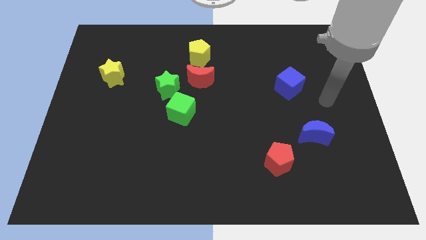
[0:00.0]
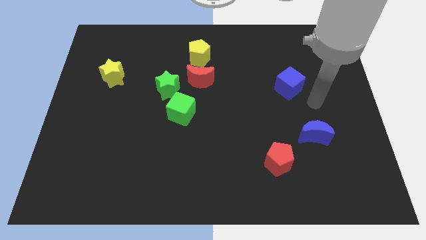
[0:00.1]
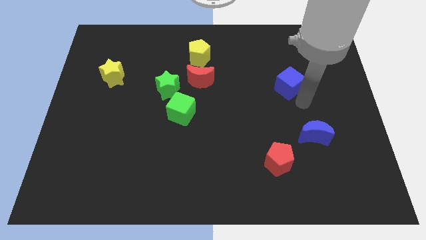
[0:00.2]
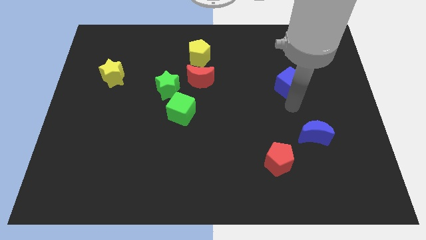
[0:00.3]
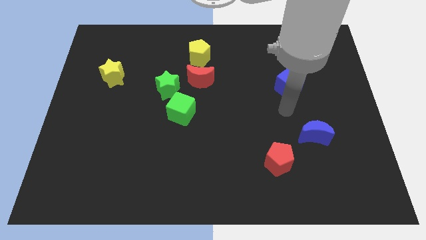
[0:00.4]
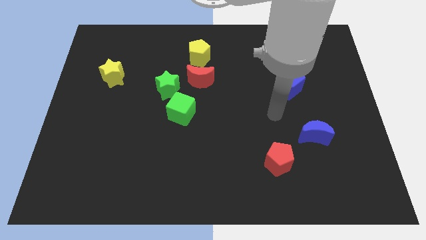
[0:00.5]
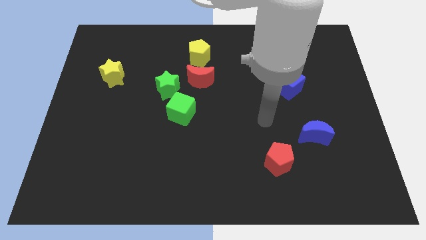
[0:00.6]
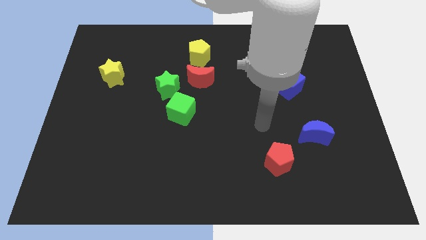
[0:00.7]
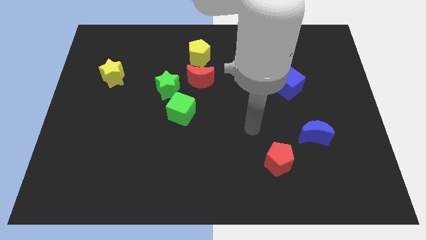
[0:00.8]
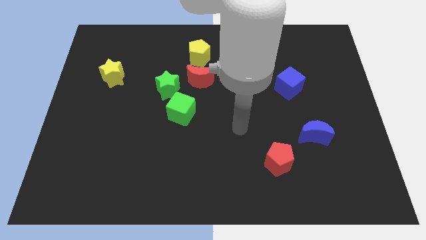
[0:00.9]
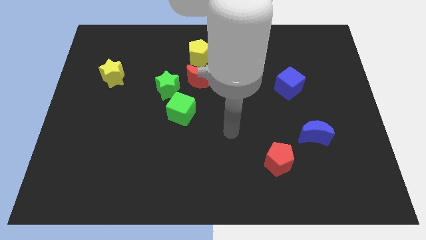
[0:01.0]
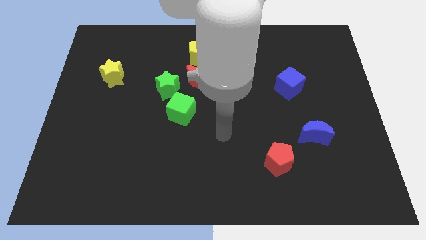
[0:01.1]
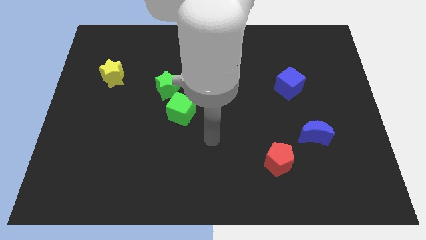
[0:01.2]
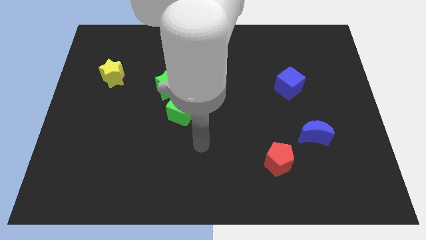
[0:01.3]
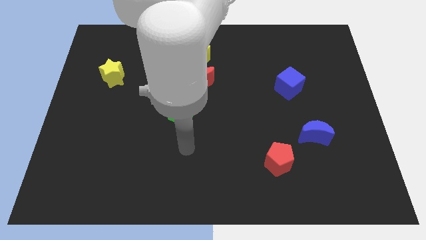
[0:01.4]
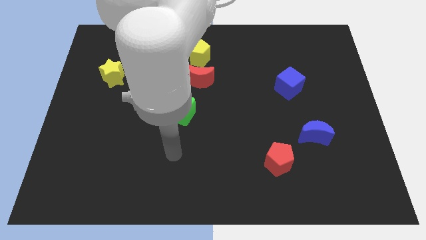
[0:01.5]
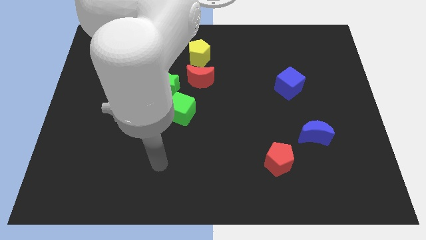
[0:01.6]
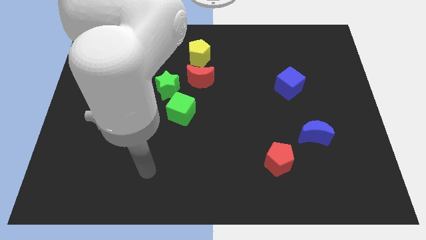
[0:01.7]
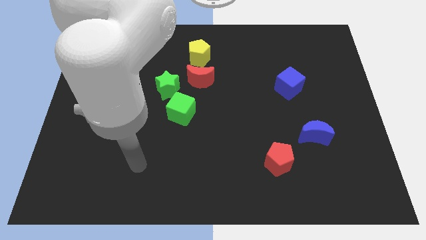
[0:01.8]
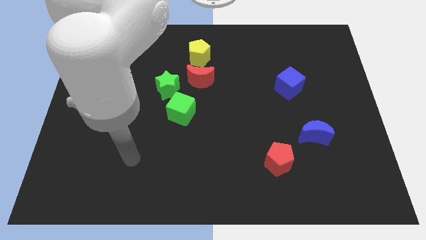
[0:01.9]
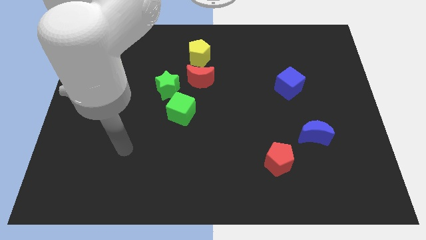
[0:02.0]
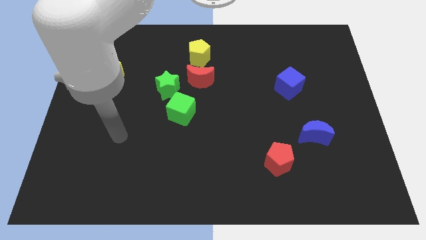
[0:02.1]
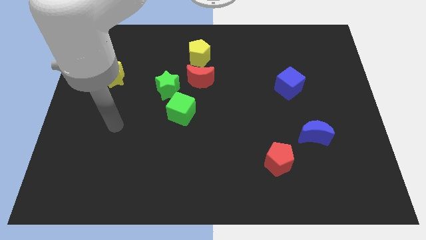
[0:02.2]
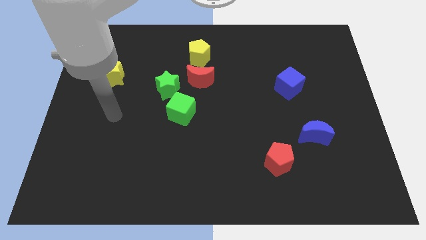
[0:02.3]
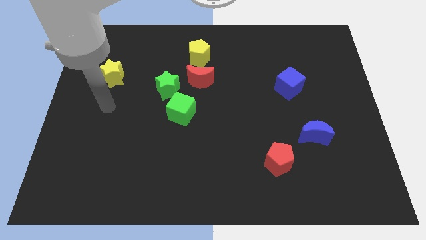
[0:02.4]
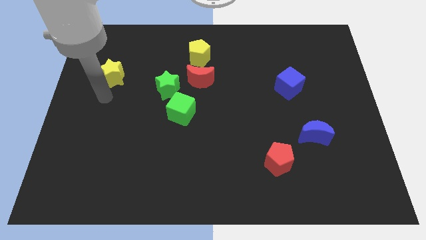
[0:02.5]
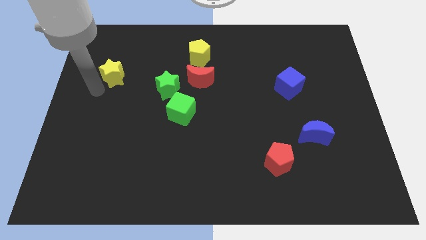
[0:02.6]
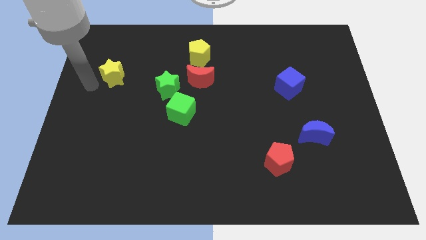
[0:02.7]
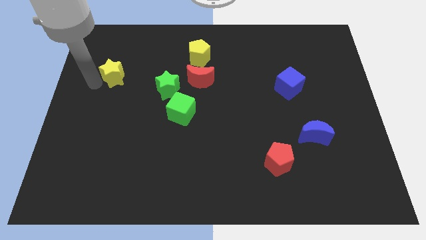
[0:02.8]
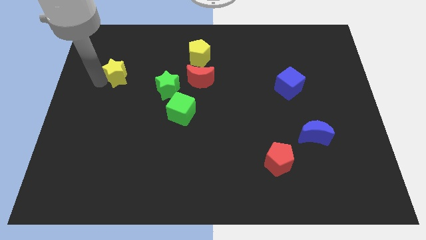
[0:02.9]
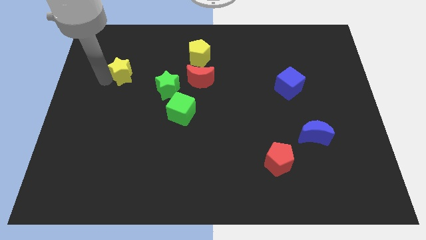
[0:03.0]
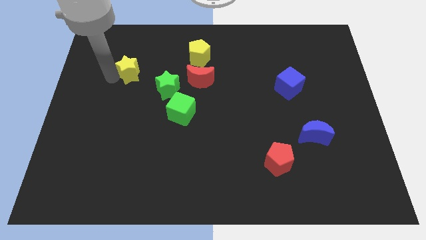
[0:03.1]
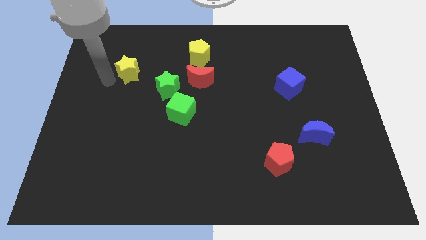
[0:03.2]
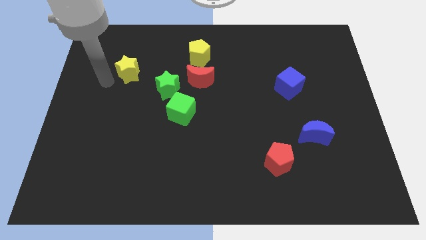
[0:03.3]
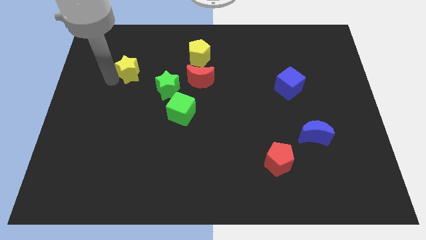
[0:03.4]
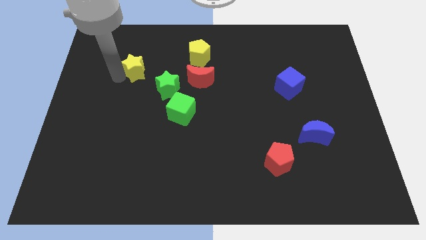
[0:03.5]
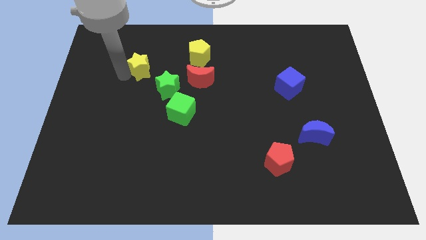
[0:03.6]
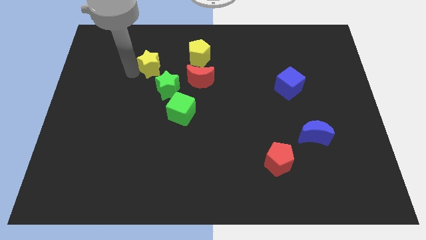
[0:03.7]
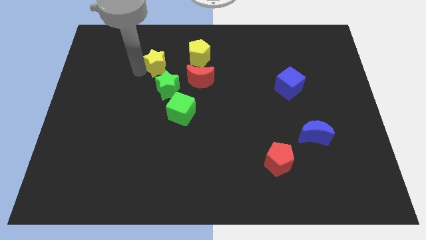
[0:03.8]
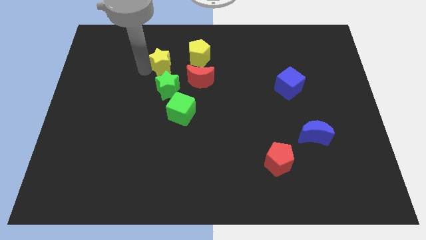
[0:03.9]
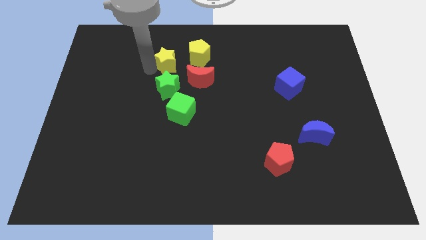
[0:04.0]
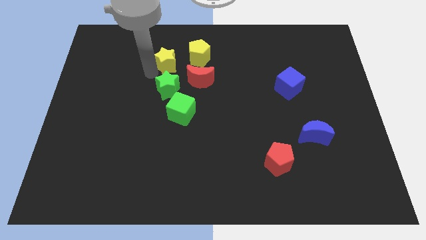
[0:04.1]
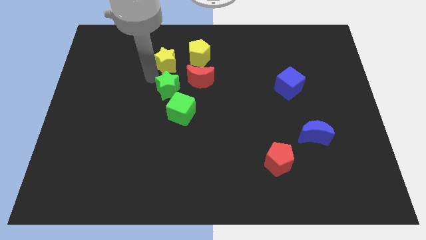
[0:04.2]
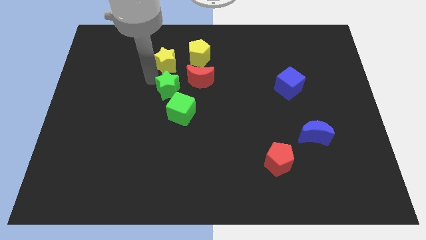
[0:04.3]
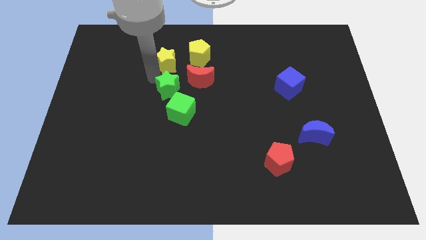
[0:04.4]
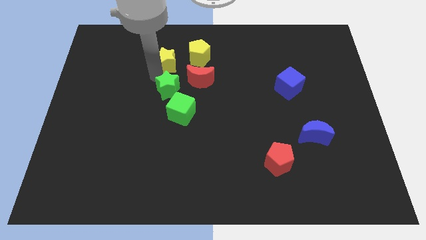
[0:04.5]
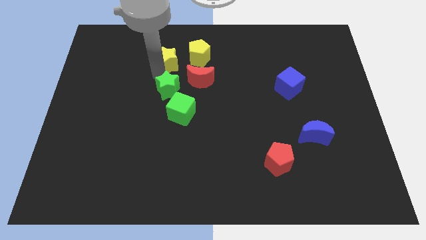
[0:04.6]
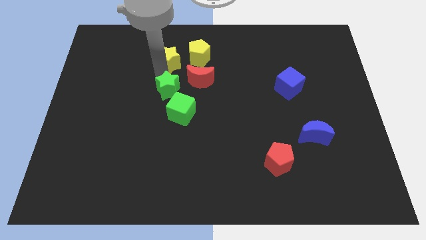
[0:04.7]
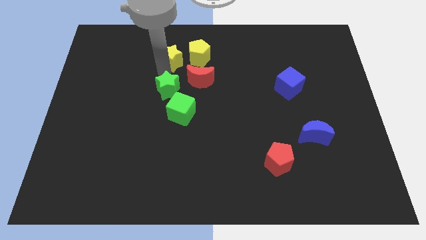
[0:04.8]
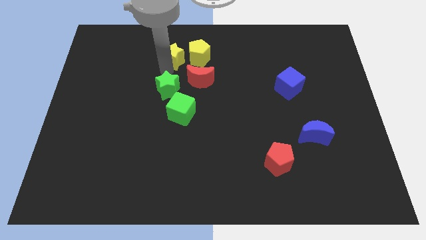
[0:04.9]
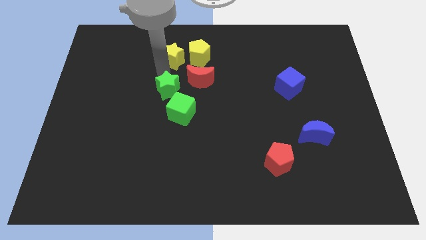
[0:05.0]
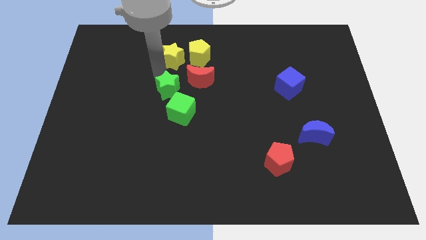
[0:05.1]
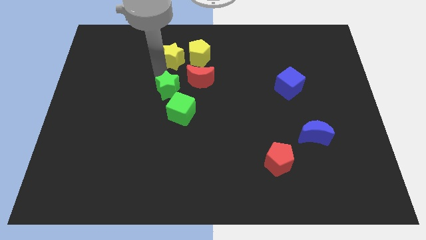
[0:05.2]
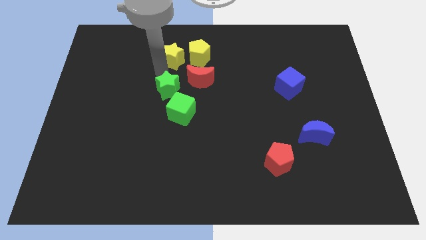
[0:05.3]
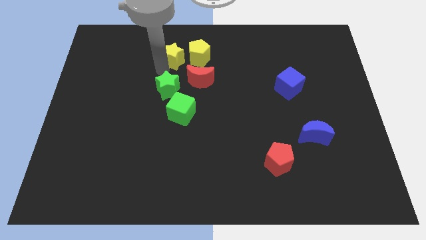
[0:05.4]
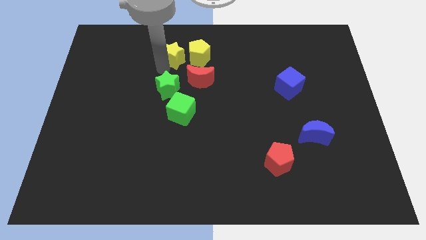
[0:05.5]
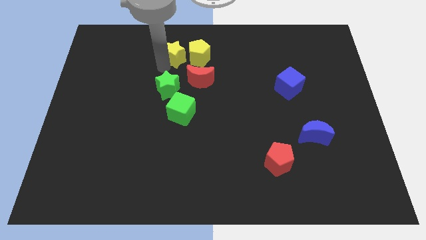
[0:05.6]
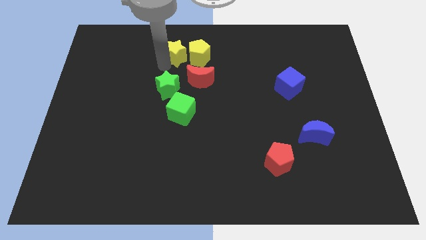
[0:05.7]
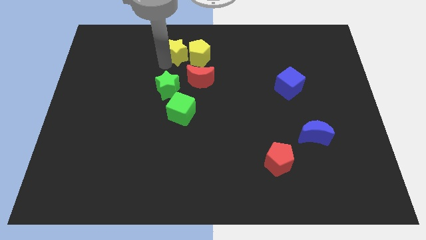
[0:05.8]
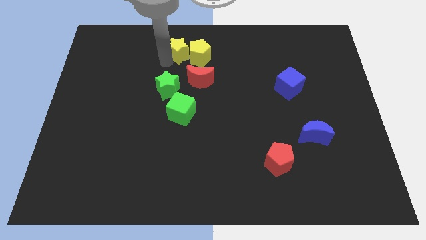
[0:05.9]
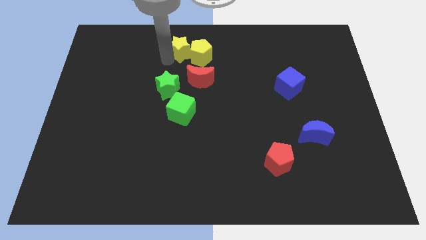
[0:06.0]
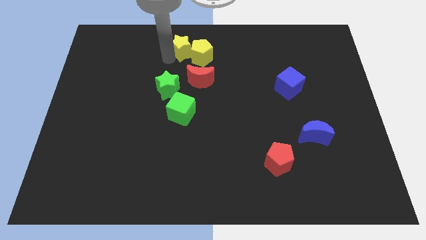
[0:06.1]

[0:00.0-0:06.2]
push the yellow star to the towards your base

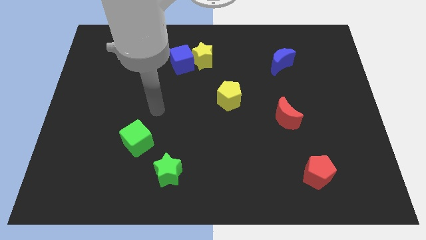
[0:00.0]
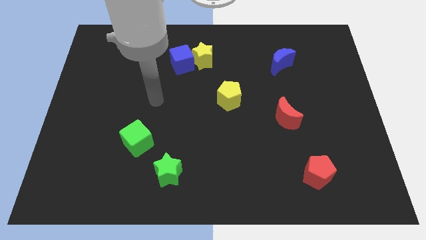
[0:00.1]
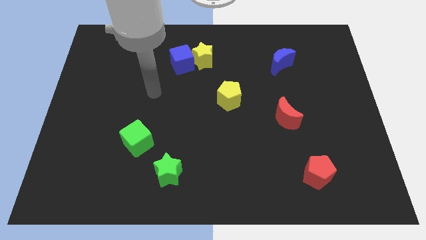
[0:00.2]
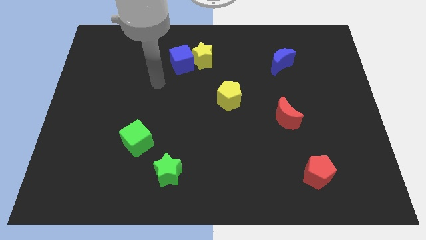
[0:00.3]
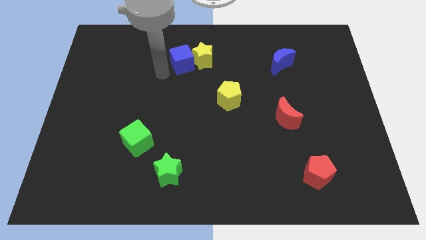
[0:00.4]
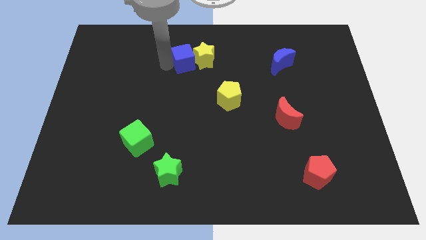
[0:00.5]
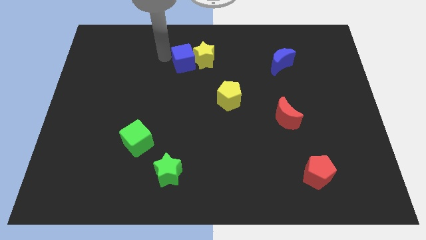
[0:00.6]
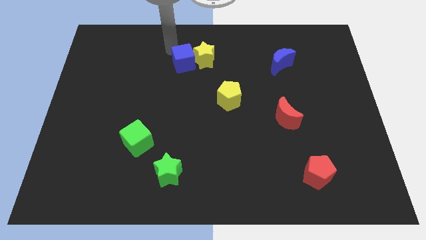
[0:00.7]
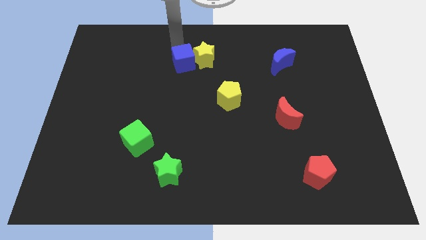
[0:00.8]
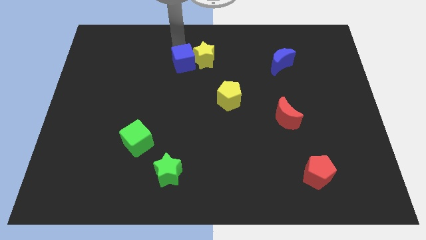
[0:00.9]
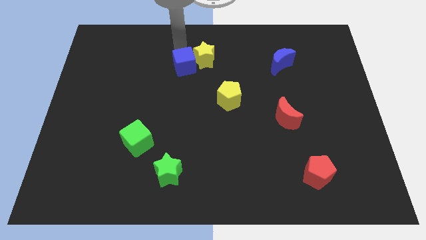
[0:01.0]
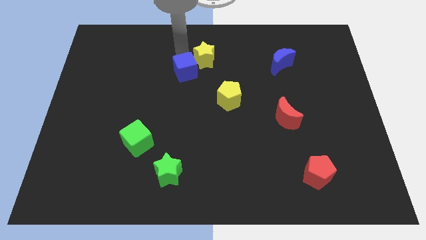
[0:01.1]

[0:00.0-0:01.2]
push the blue cube to the middle of the board
